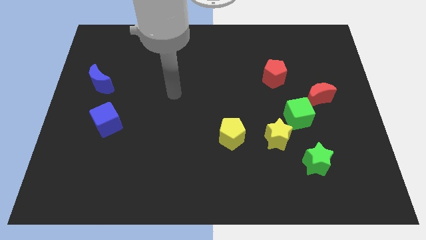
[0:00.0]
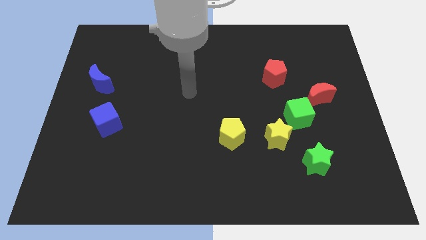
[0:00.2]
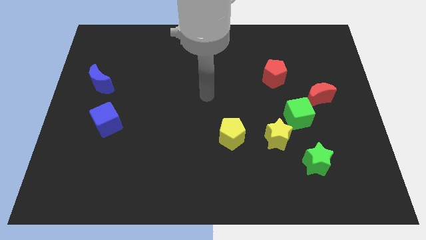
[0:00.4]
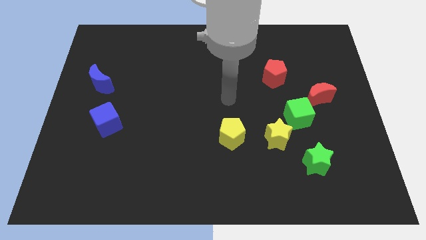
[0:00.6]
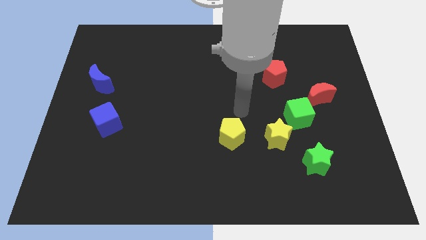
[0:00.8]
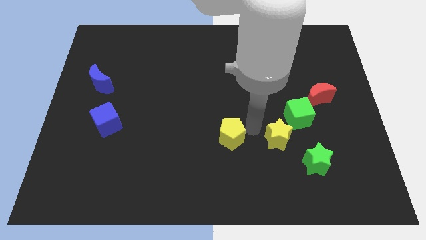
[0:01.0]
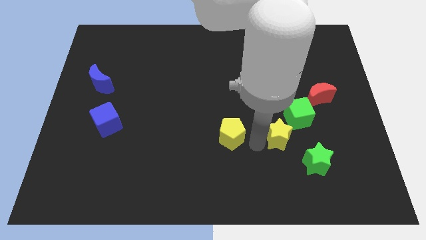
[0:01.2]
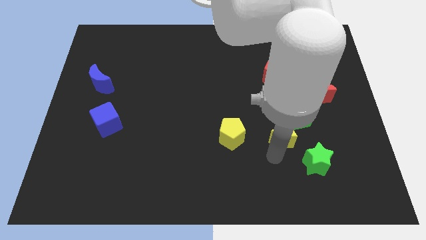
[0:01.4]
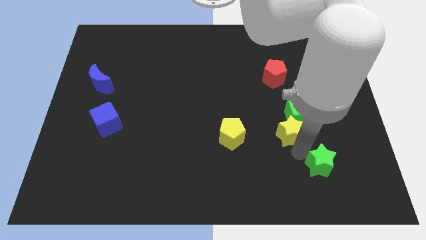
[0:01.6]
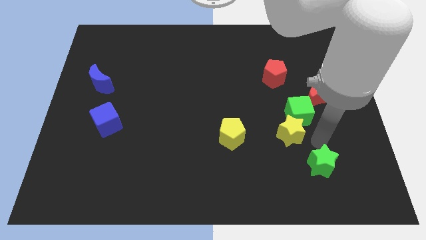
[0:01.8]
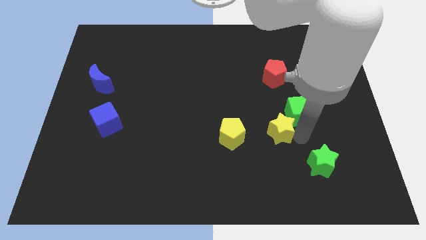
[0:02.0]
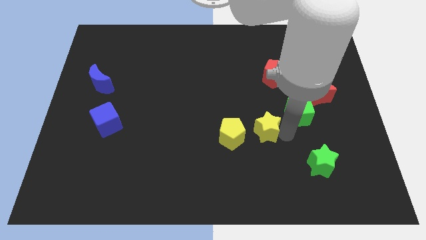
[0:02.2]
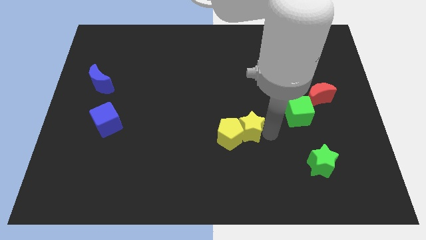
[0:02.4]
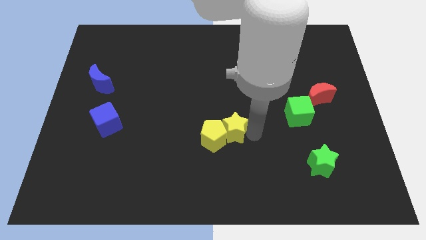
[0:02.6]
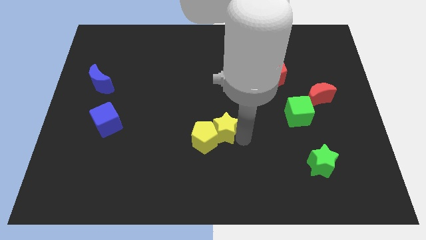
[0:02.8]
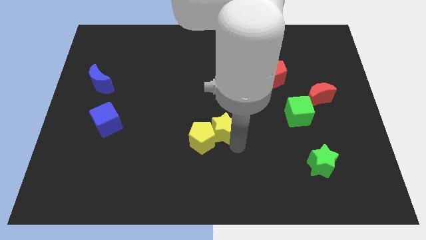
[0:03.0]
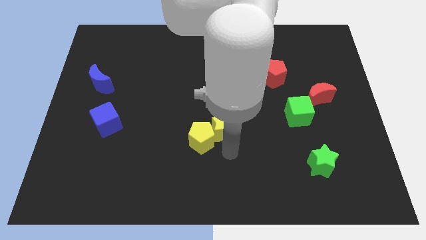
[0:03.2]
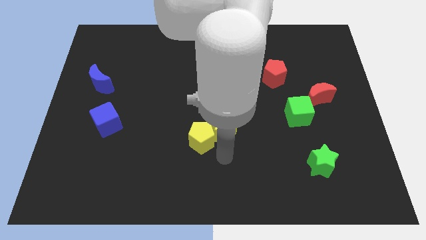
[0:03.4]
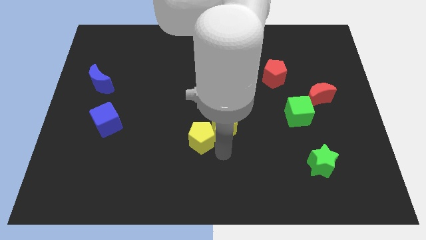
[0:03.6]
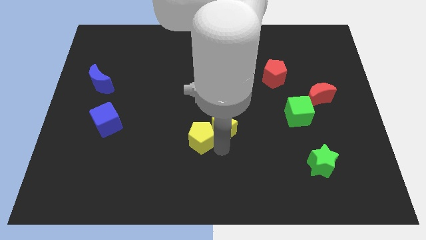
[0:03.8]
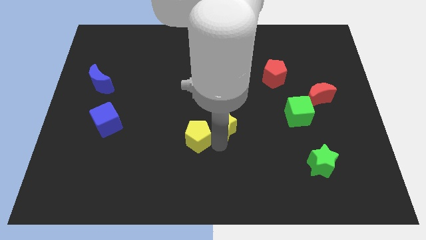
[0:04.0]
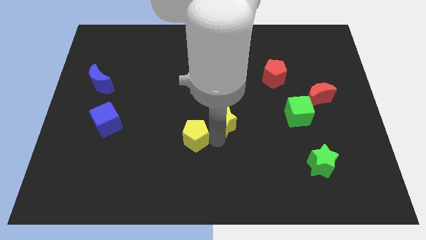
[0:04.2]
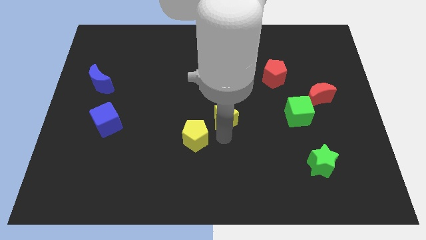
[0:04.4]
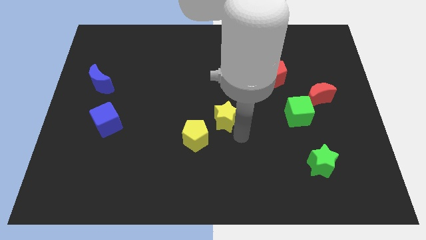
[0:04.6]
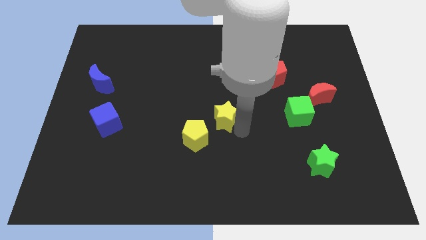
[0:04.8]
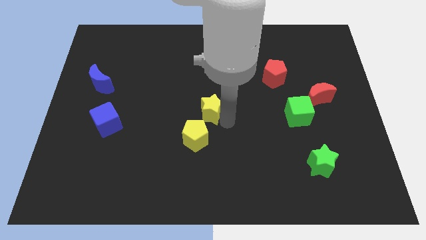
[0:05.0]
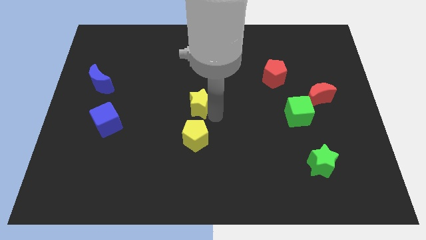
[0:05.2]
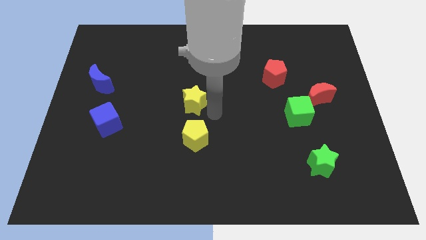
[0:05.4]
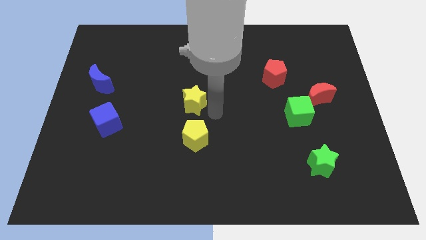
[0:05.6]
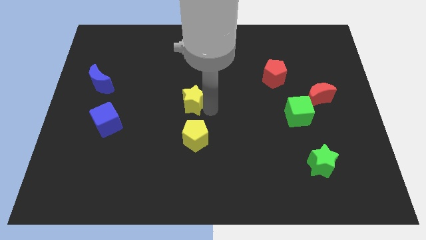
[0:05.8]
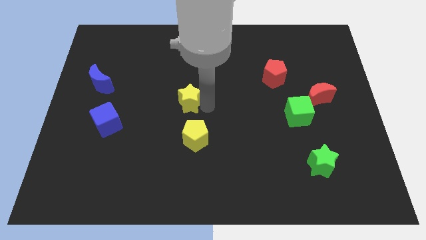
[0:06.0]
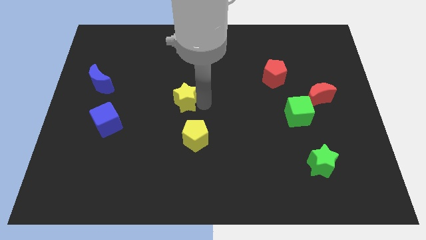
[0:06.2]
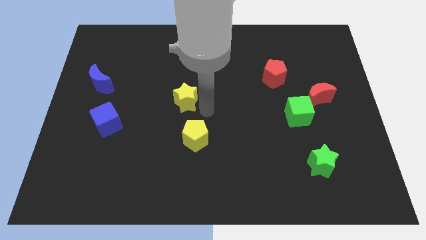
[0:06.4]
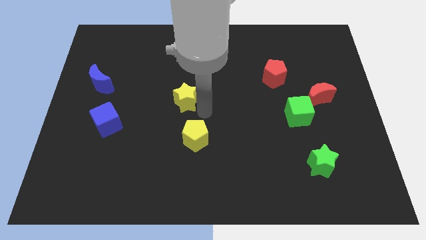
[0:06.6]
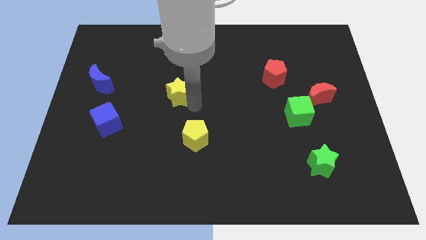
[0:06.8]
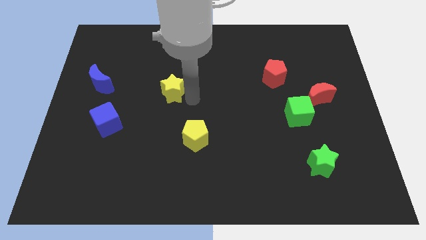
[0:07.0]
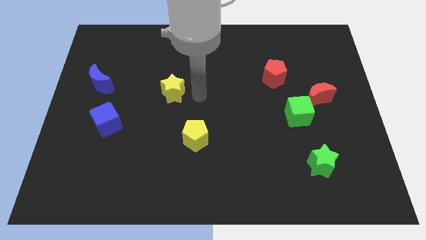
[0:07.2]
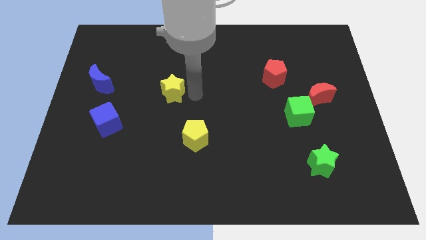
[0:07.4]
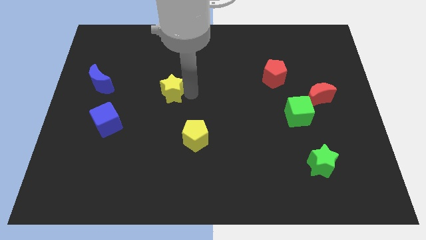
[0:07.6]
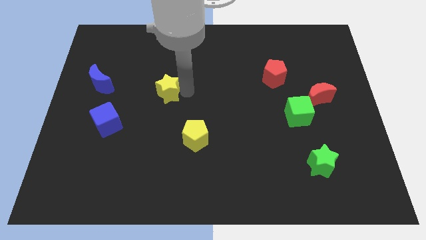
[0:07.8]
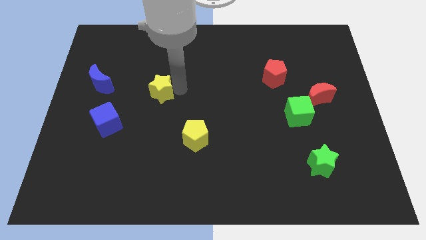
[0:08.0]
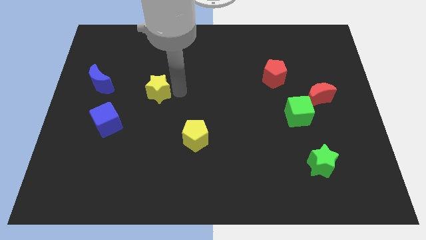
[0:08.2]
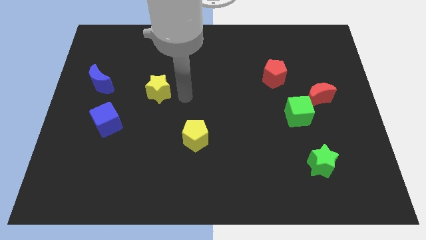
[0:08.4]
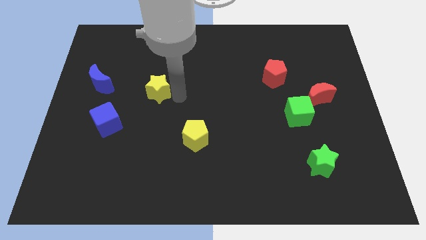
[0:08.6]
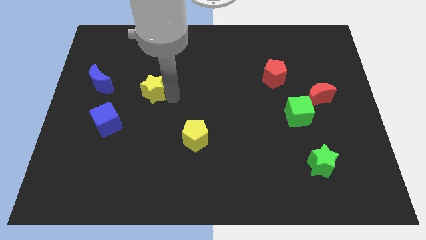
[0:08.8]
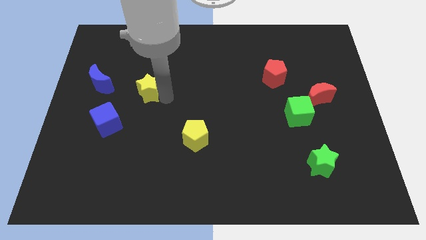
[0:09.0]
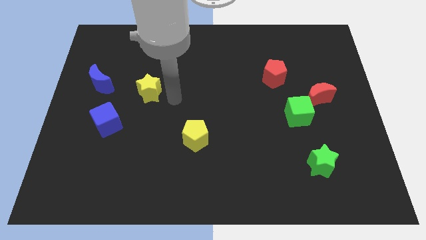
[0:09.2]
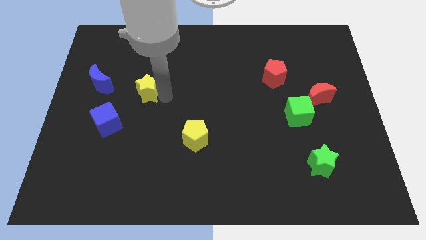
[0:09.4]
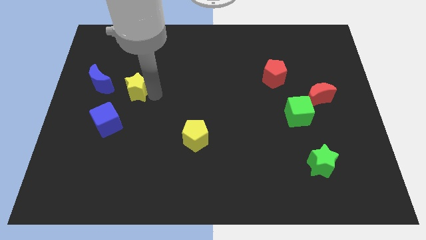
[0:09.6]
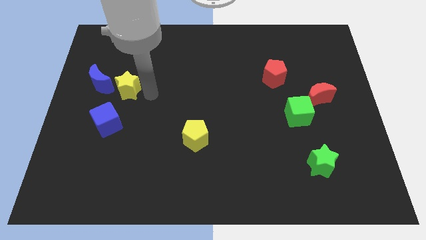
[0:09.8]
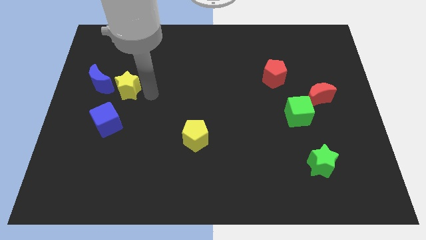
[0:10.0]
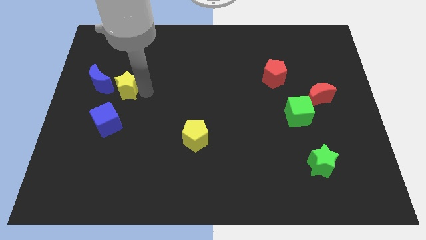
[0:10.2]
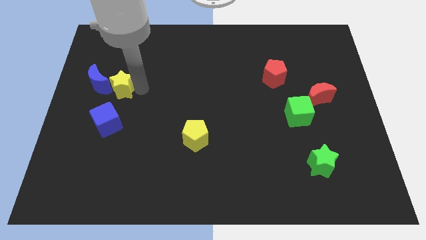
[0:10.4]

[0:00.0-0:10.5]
slide the yellow star next to the blue moon

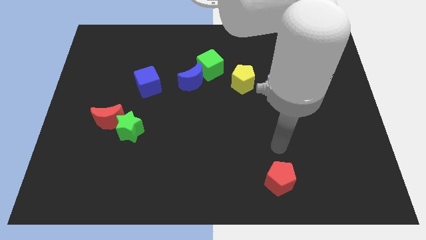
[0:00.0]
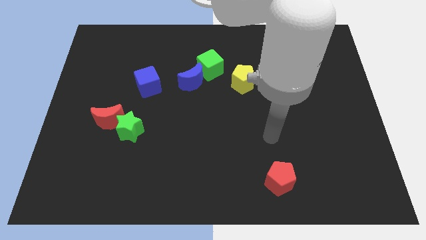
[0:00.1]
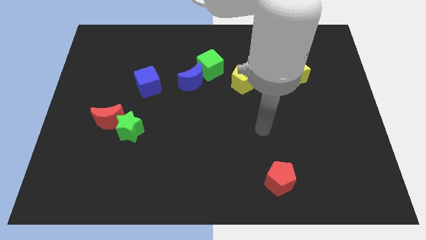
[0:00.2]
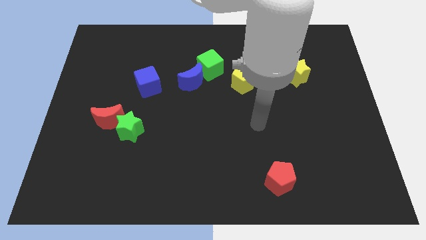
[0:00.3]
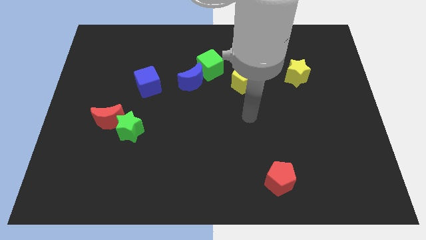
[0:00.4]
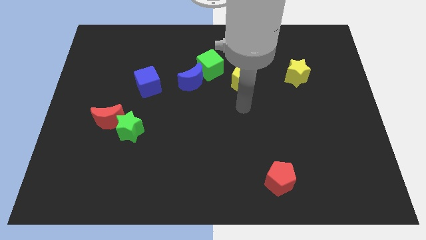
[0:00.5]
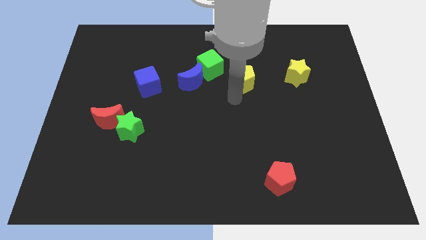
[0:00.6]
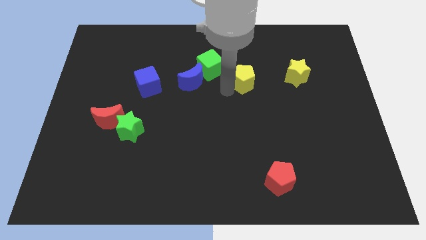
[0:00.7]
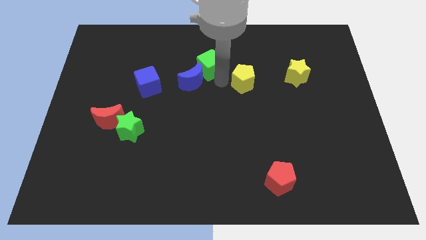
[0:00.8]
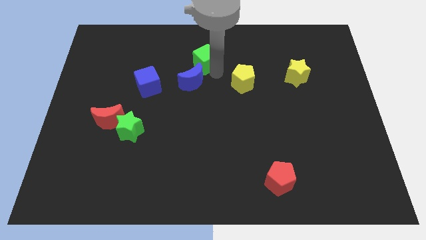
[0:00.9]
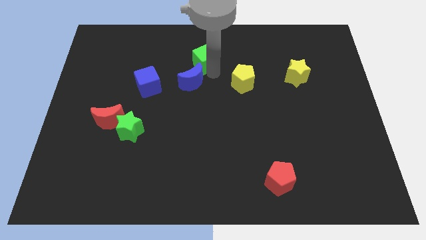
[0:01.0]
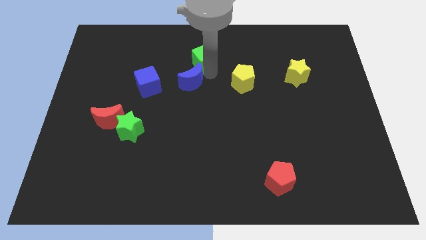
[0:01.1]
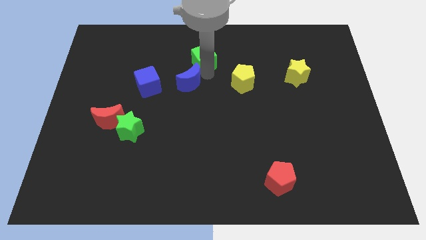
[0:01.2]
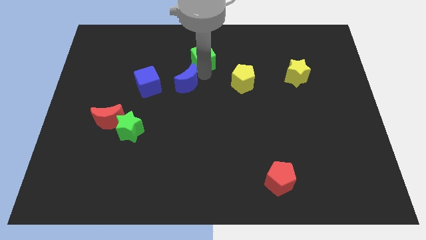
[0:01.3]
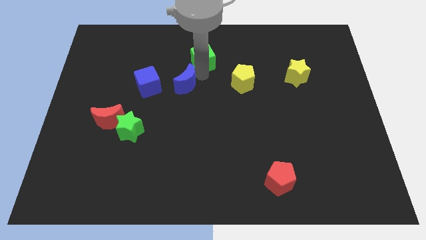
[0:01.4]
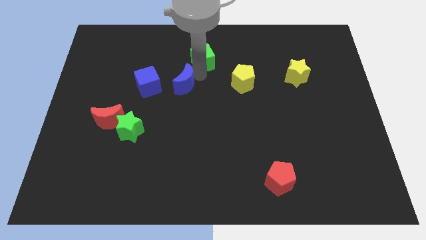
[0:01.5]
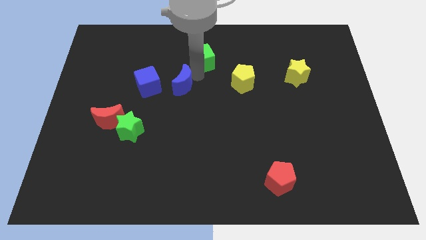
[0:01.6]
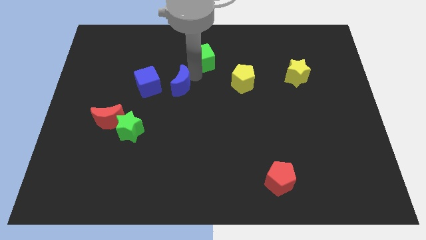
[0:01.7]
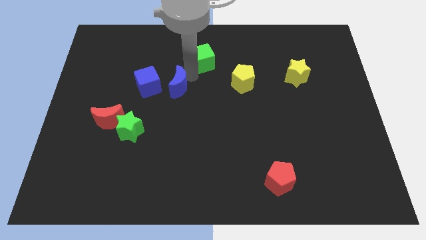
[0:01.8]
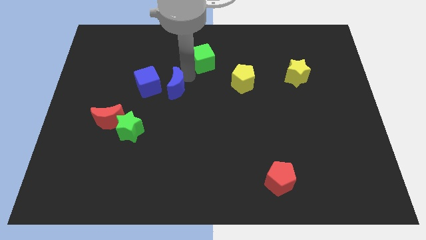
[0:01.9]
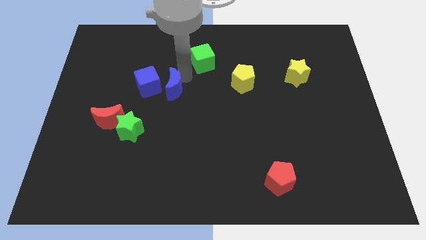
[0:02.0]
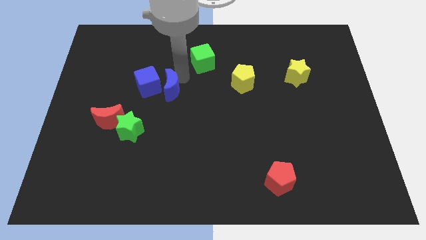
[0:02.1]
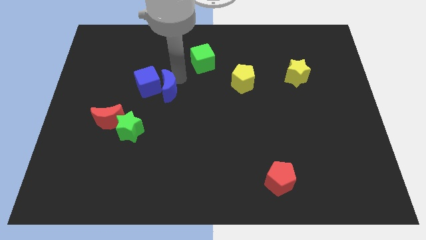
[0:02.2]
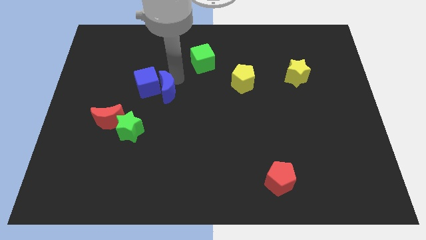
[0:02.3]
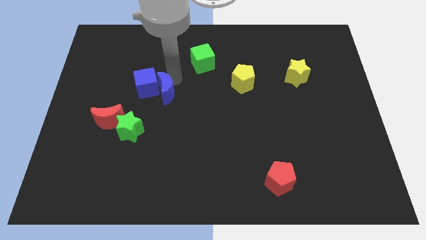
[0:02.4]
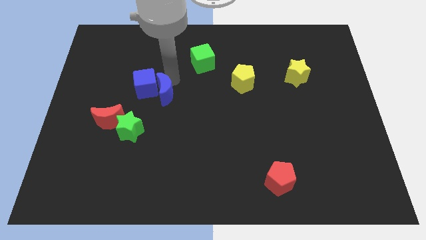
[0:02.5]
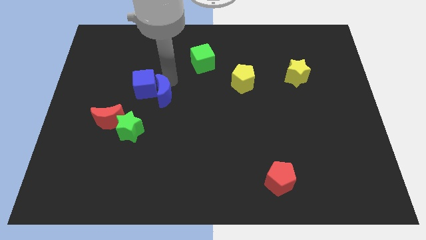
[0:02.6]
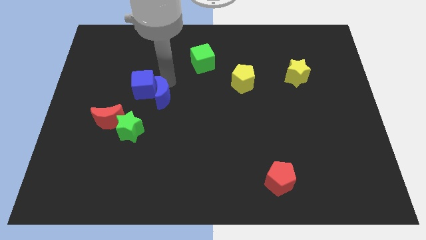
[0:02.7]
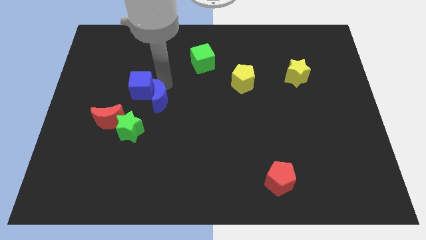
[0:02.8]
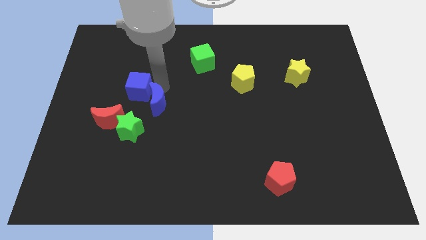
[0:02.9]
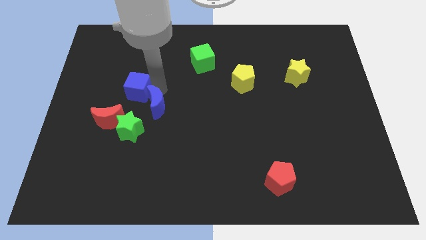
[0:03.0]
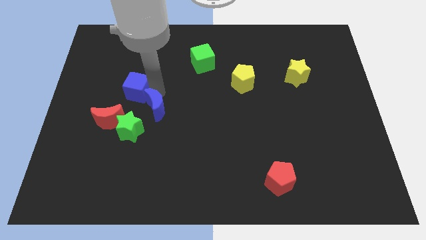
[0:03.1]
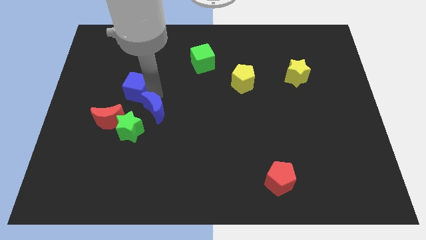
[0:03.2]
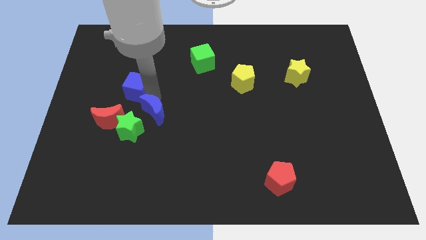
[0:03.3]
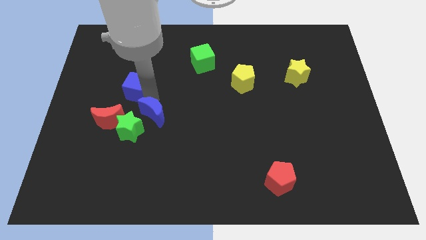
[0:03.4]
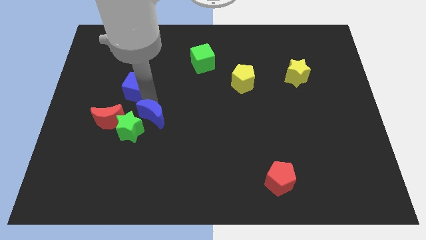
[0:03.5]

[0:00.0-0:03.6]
slide the blue moon next to the green star
